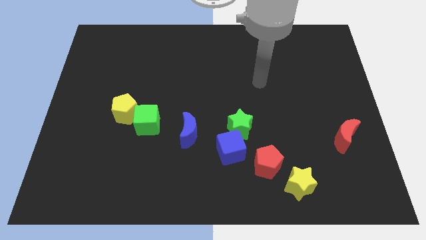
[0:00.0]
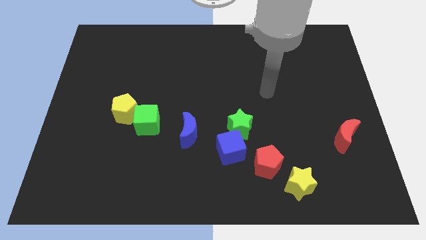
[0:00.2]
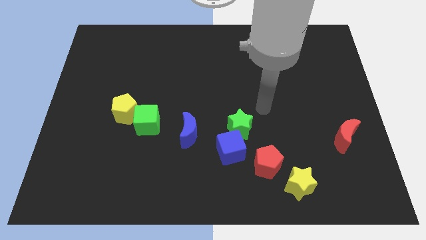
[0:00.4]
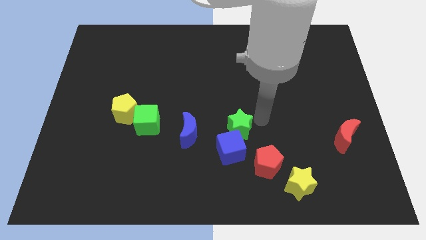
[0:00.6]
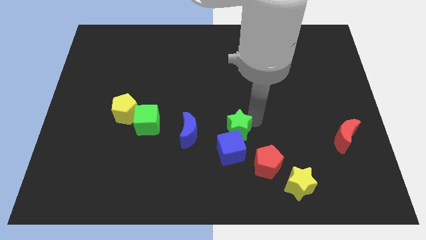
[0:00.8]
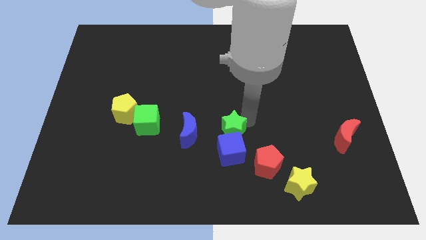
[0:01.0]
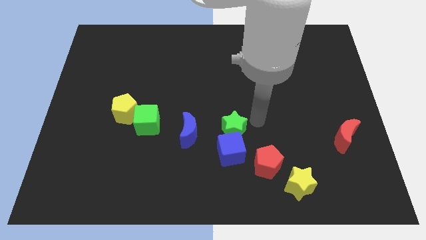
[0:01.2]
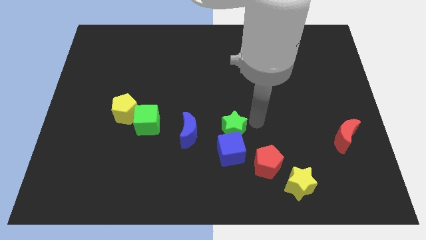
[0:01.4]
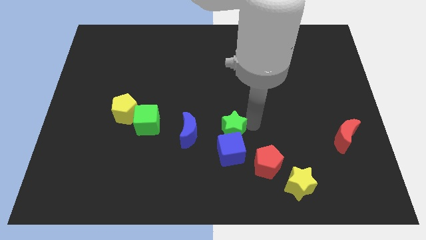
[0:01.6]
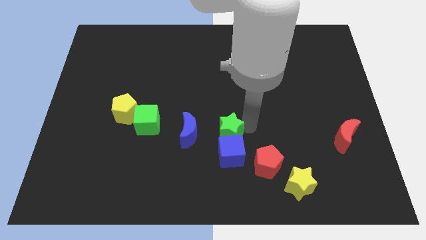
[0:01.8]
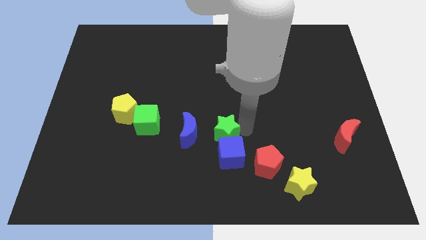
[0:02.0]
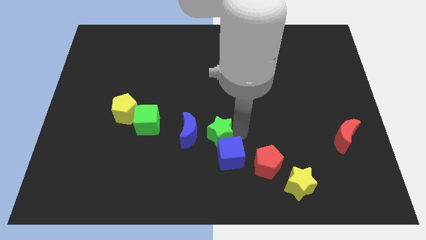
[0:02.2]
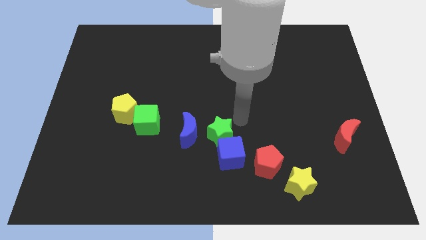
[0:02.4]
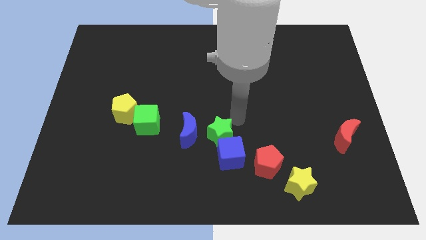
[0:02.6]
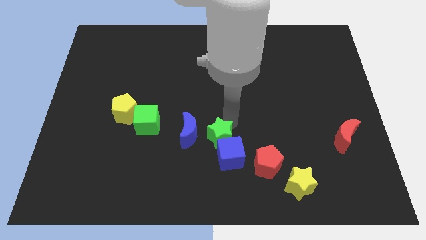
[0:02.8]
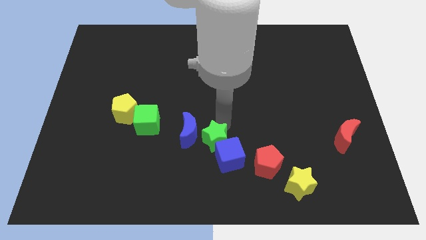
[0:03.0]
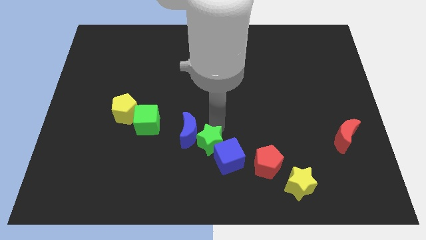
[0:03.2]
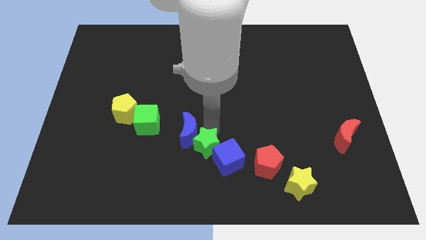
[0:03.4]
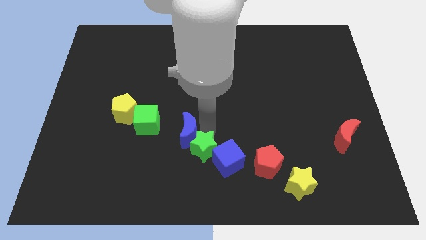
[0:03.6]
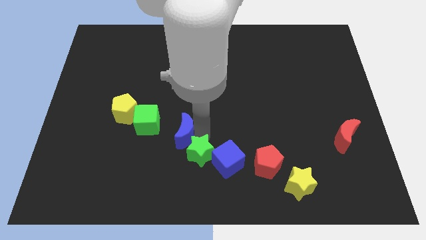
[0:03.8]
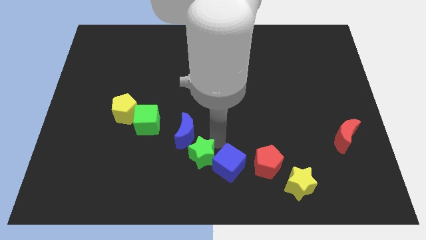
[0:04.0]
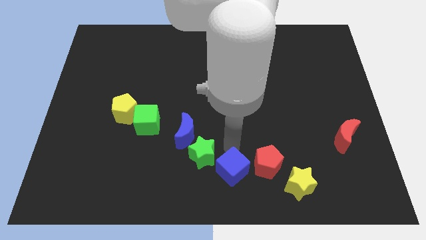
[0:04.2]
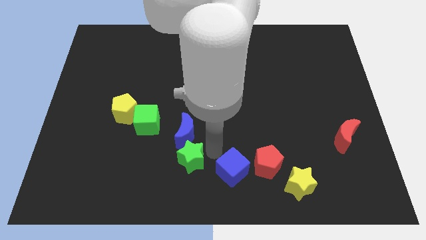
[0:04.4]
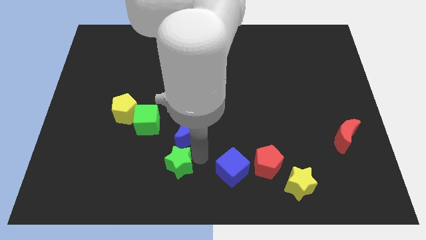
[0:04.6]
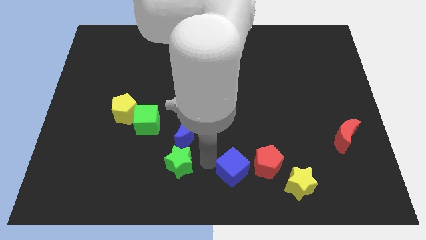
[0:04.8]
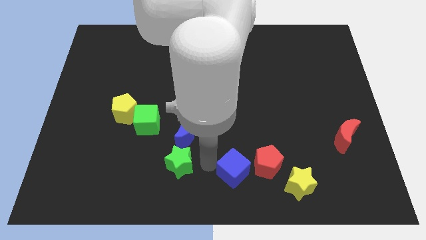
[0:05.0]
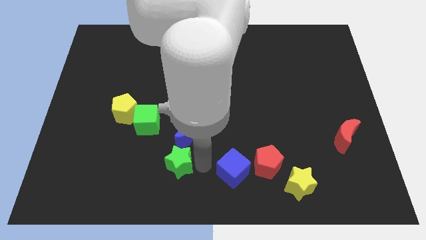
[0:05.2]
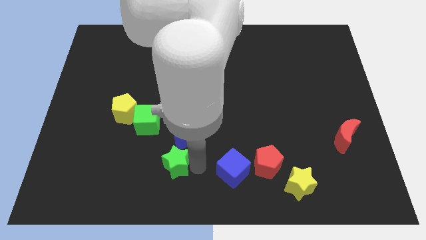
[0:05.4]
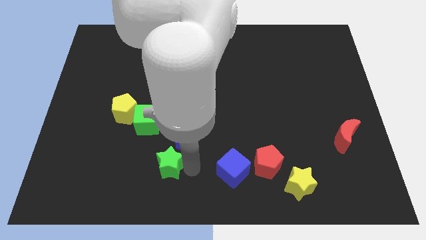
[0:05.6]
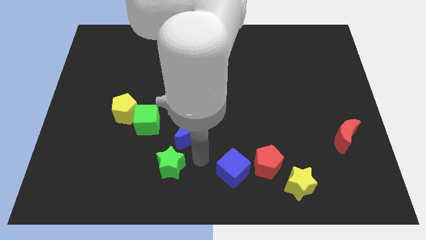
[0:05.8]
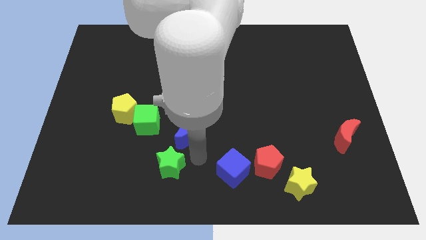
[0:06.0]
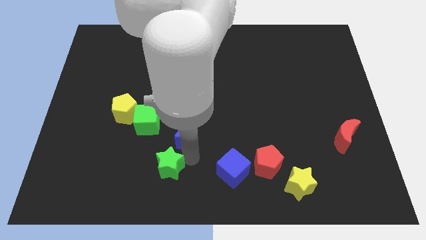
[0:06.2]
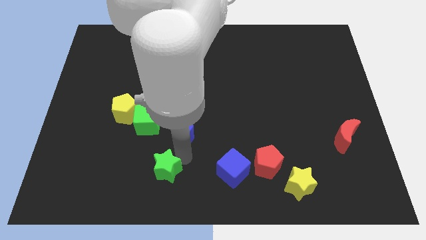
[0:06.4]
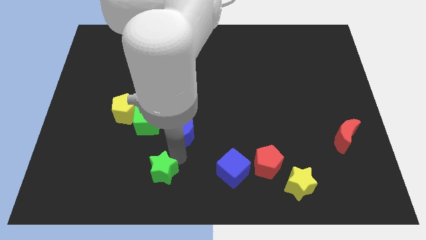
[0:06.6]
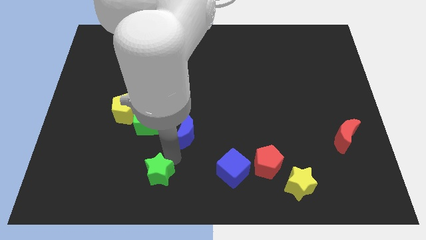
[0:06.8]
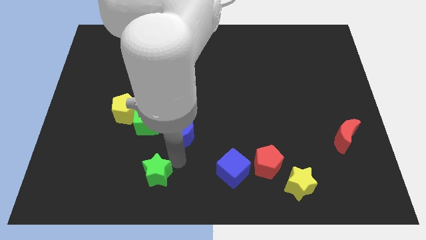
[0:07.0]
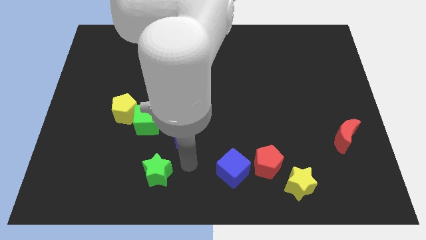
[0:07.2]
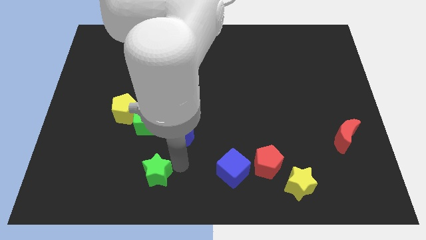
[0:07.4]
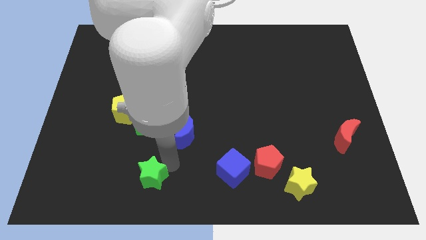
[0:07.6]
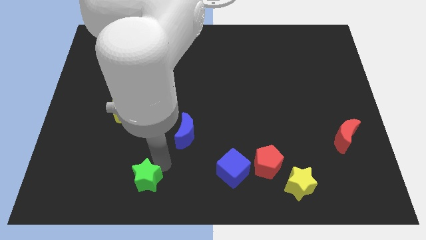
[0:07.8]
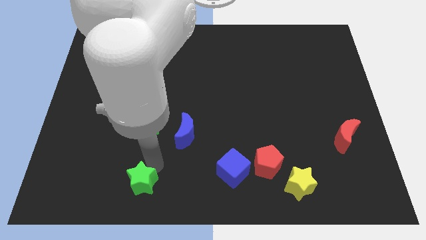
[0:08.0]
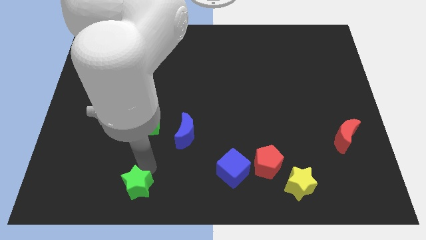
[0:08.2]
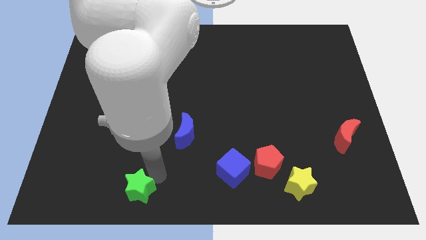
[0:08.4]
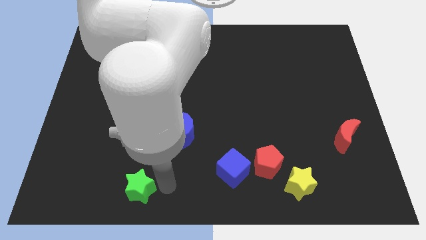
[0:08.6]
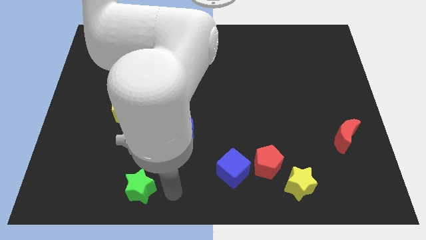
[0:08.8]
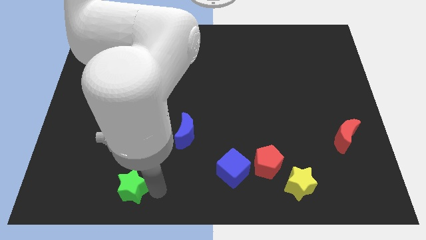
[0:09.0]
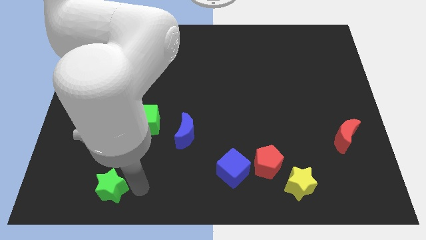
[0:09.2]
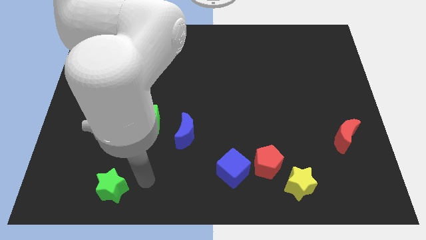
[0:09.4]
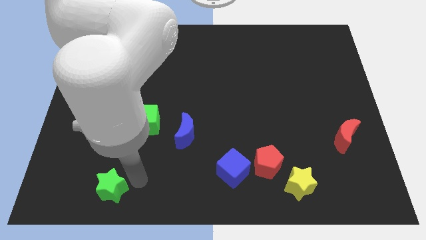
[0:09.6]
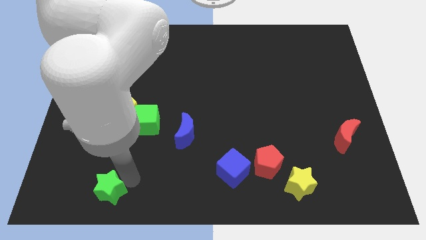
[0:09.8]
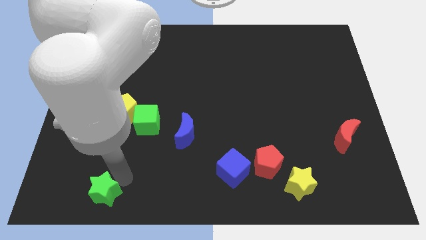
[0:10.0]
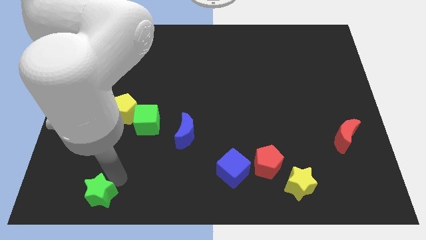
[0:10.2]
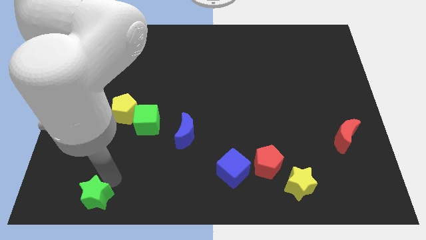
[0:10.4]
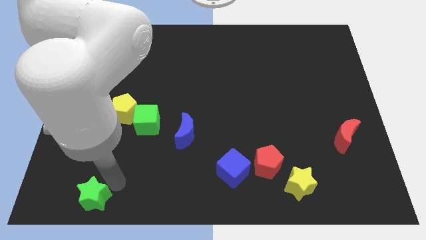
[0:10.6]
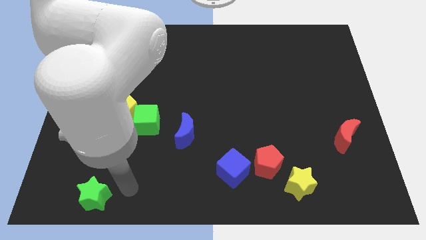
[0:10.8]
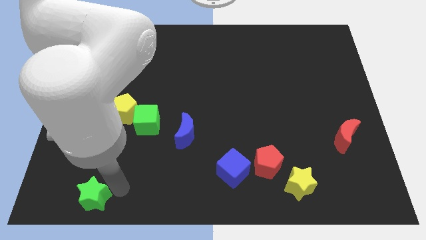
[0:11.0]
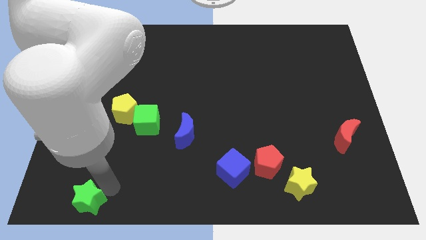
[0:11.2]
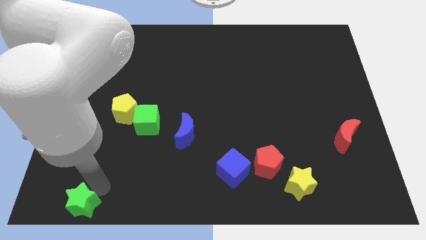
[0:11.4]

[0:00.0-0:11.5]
move the green star to the bottom left
